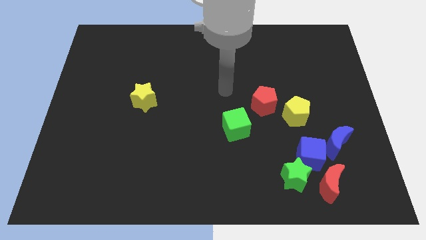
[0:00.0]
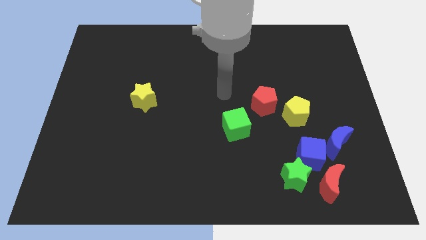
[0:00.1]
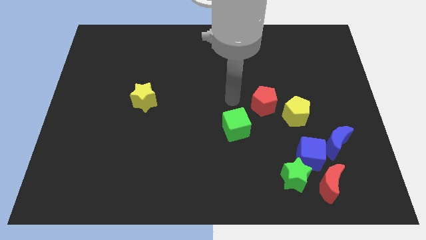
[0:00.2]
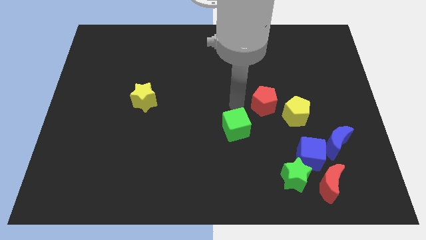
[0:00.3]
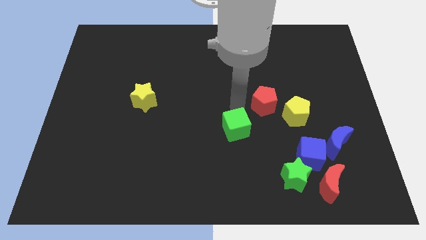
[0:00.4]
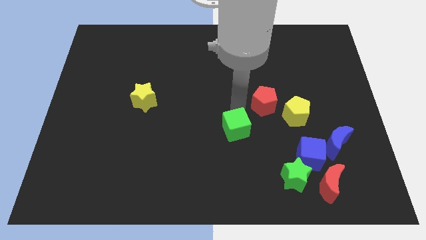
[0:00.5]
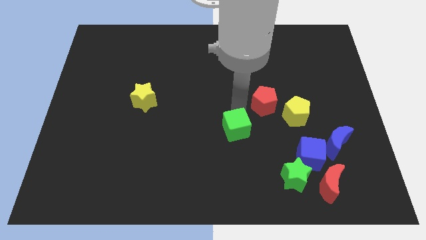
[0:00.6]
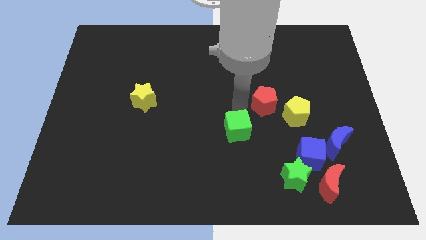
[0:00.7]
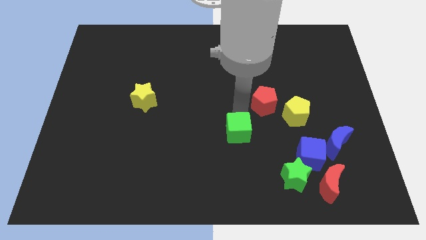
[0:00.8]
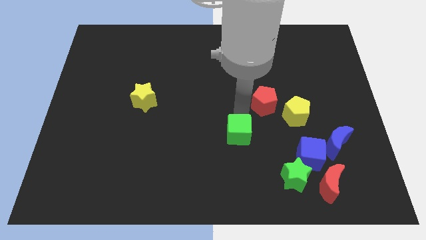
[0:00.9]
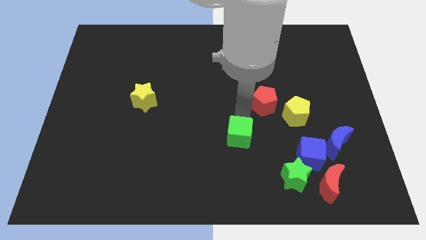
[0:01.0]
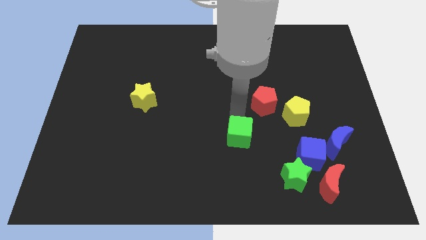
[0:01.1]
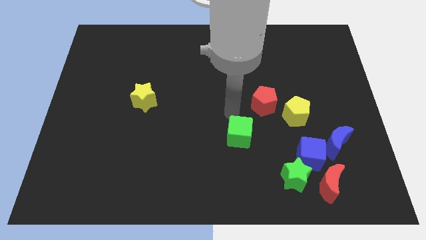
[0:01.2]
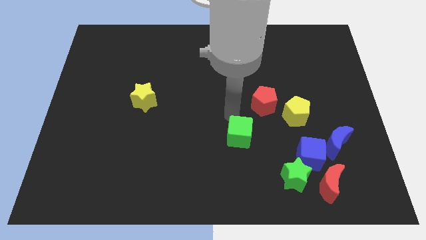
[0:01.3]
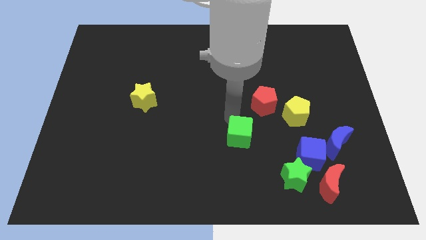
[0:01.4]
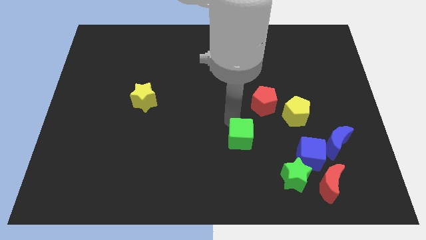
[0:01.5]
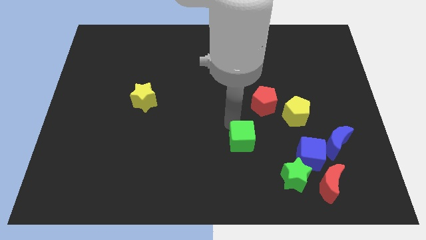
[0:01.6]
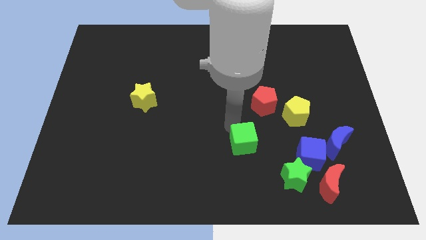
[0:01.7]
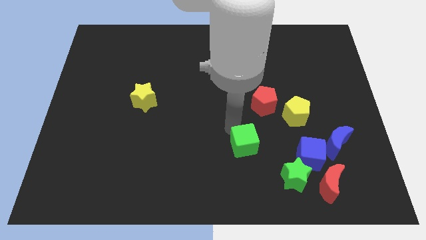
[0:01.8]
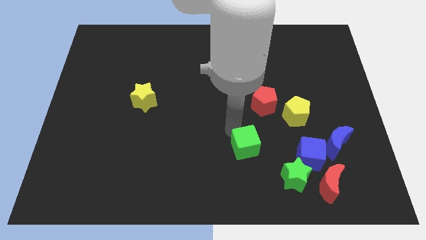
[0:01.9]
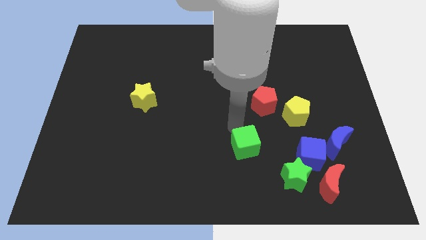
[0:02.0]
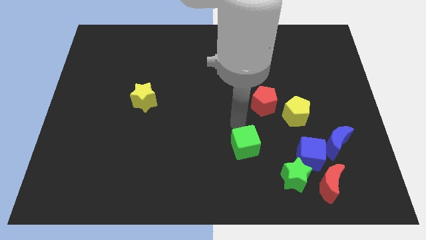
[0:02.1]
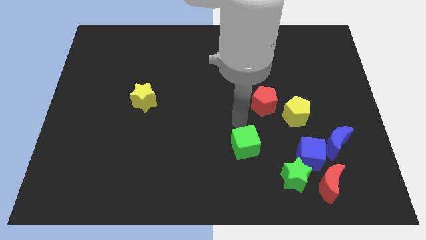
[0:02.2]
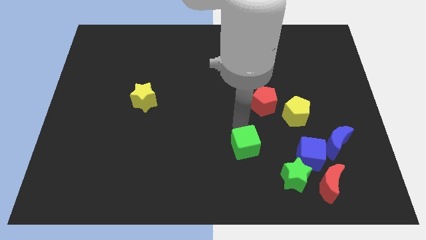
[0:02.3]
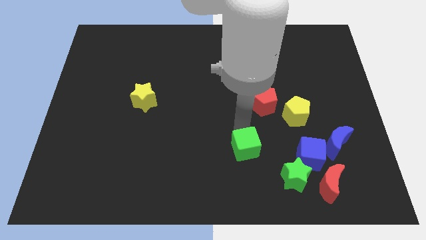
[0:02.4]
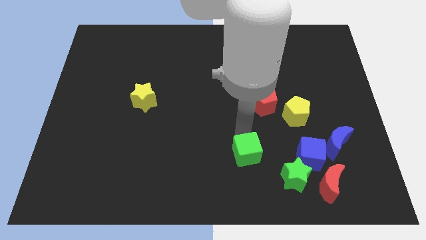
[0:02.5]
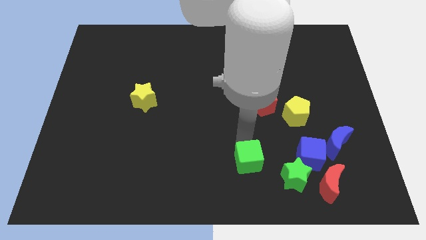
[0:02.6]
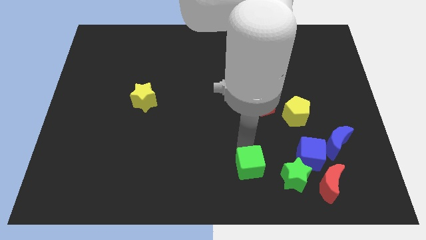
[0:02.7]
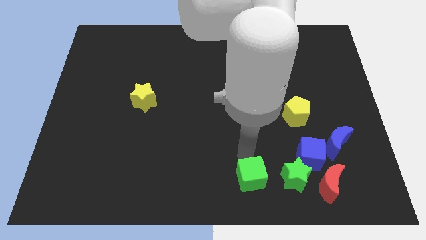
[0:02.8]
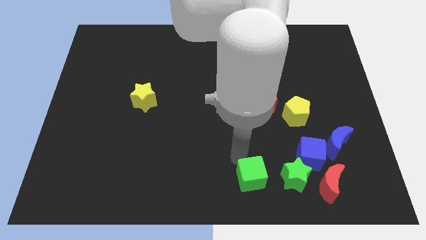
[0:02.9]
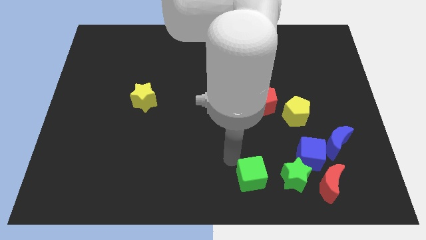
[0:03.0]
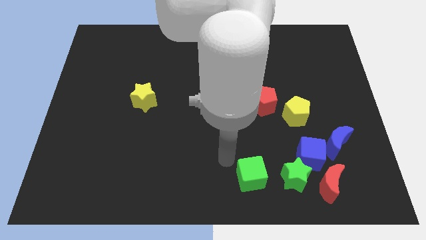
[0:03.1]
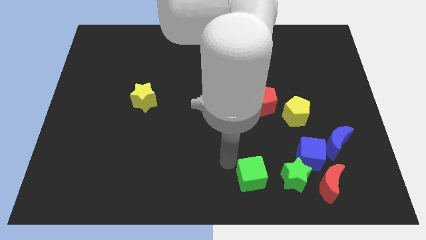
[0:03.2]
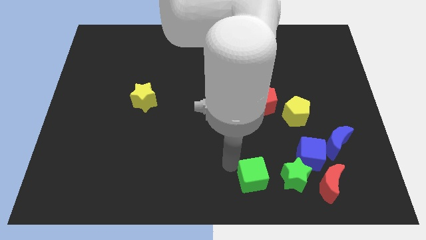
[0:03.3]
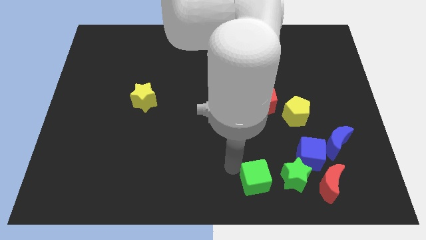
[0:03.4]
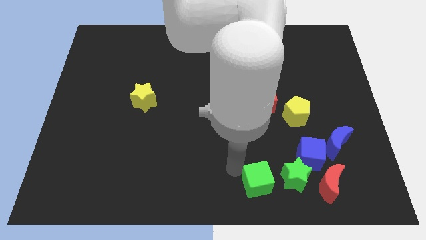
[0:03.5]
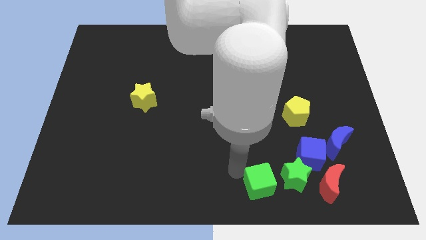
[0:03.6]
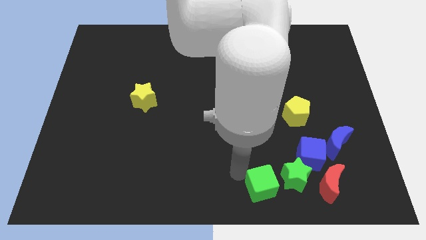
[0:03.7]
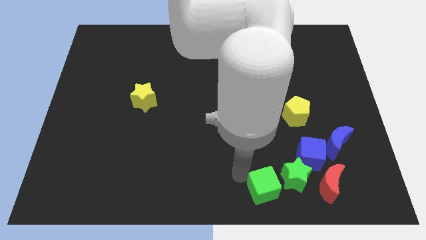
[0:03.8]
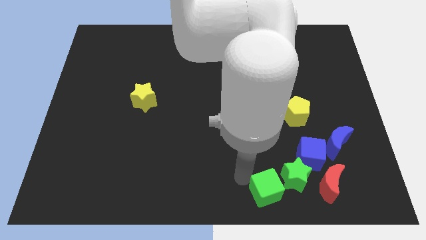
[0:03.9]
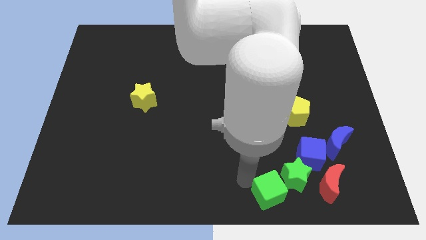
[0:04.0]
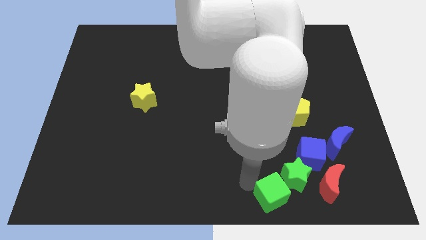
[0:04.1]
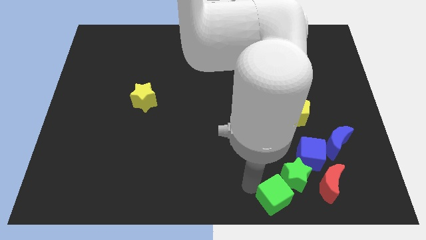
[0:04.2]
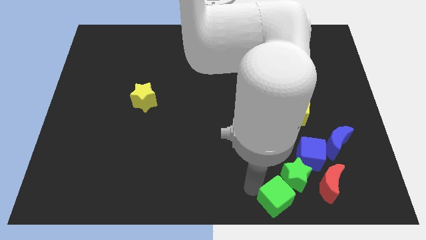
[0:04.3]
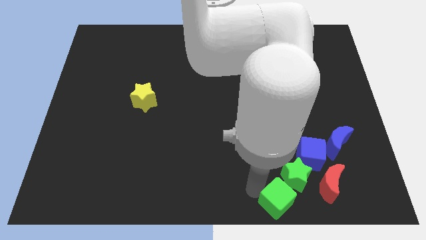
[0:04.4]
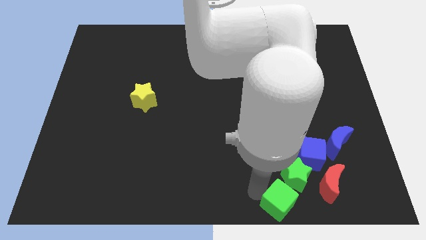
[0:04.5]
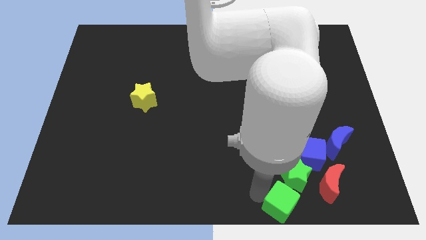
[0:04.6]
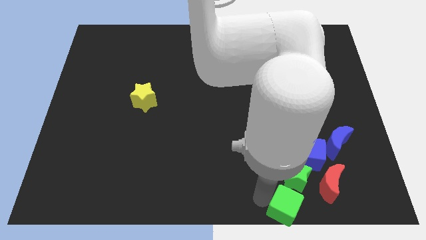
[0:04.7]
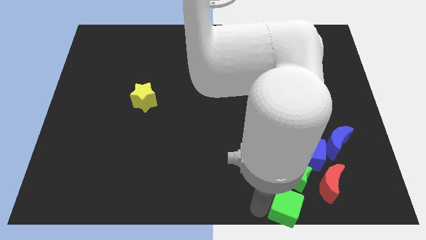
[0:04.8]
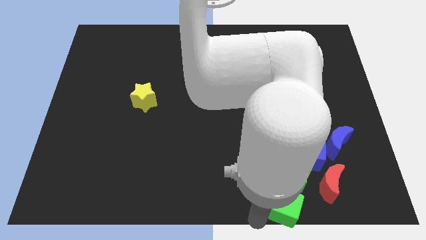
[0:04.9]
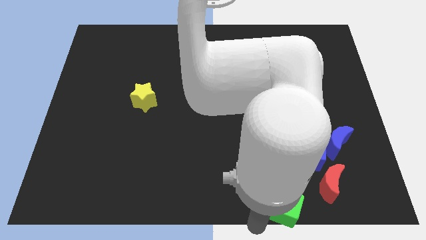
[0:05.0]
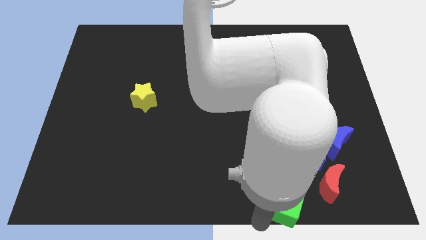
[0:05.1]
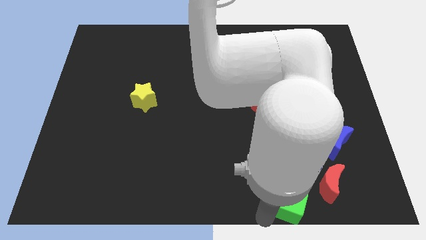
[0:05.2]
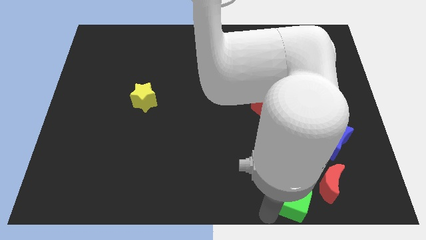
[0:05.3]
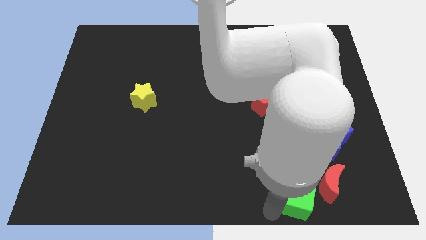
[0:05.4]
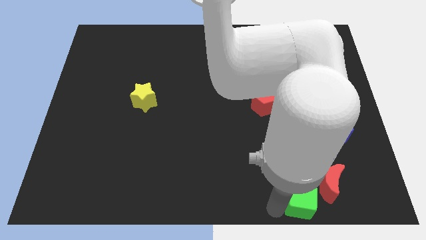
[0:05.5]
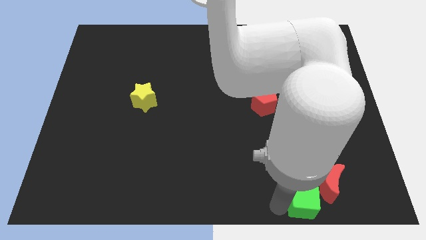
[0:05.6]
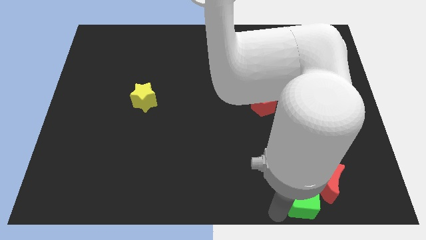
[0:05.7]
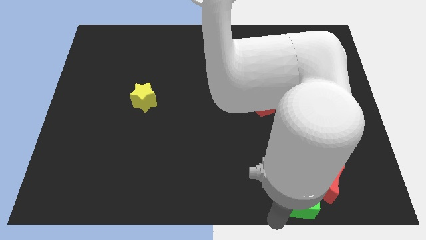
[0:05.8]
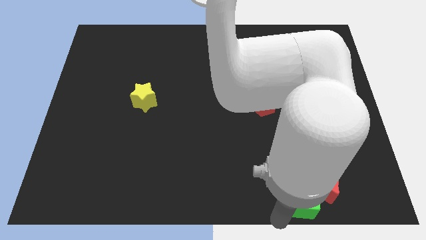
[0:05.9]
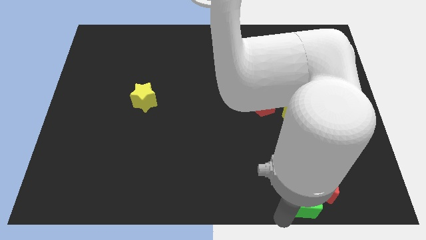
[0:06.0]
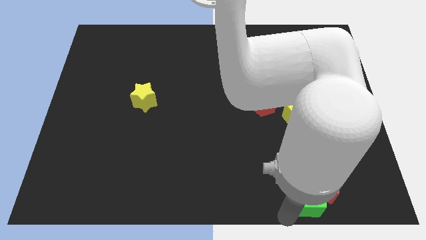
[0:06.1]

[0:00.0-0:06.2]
move the green cube towards the red moon

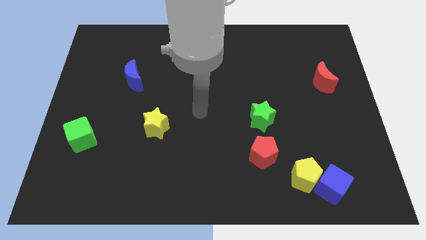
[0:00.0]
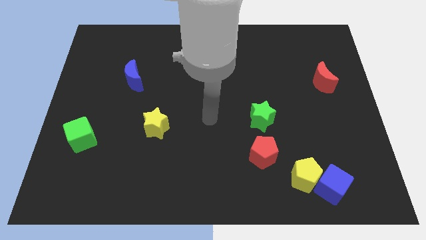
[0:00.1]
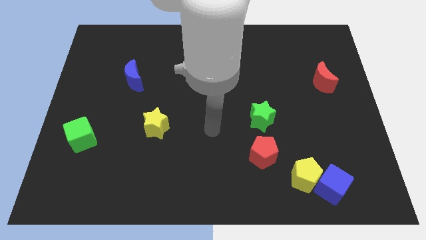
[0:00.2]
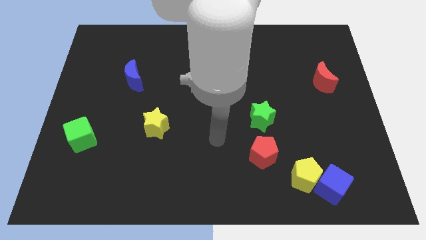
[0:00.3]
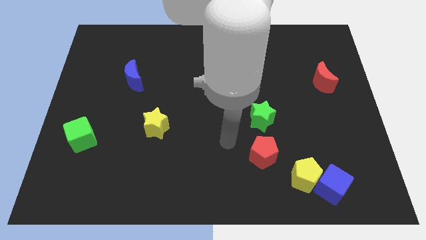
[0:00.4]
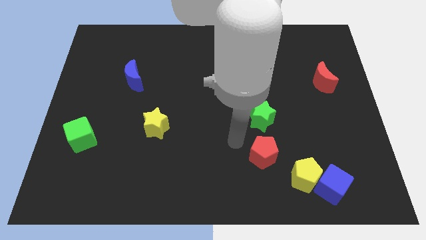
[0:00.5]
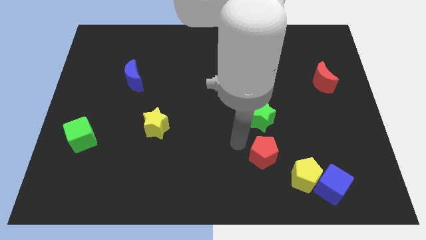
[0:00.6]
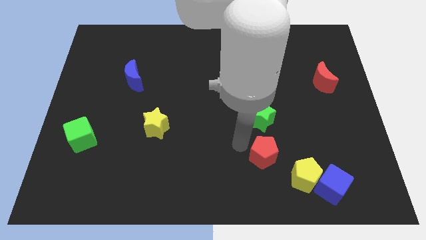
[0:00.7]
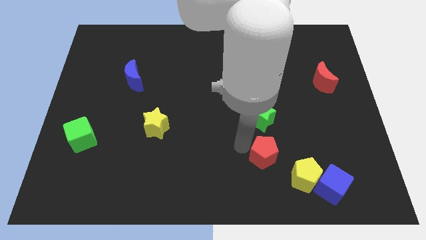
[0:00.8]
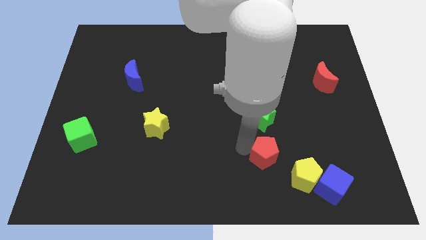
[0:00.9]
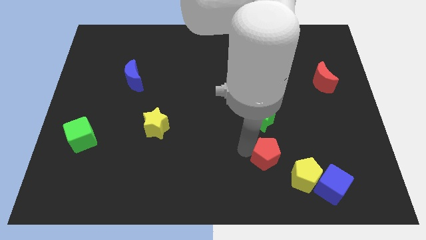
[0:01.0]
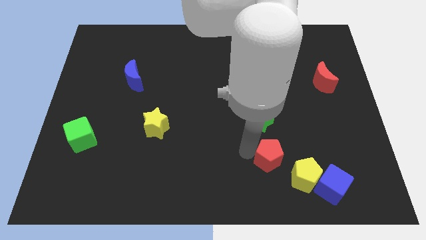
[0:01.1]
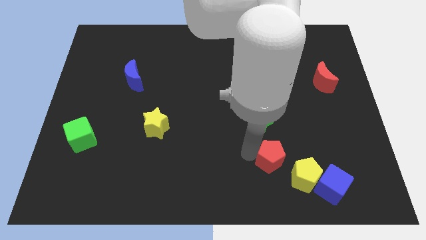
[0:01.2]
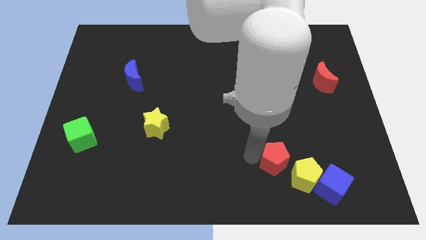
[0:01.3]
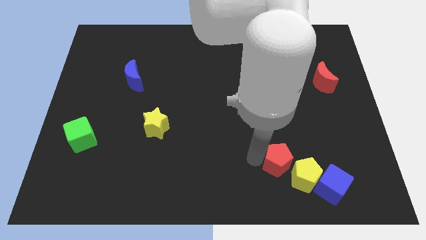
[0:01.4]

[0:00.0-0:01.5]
slide the red pentagon next to the yellow pentagon
